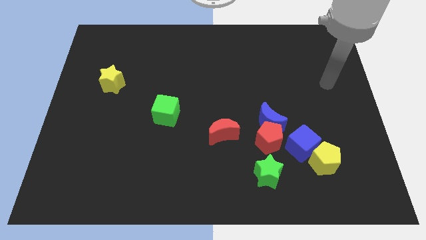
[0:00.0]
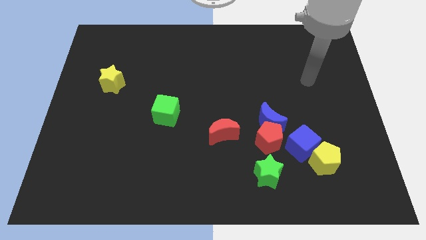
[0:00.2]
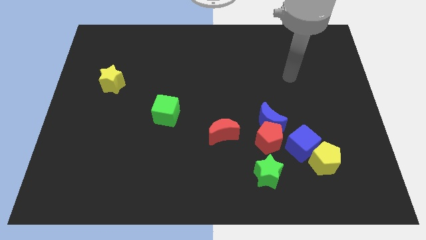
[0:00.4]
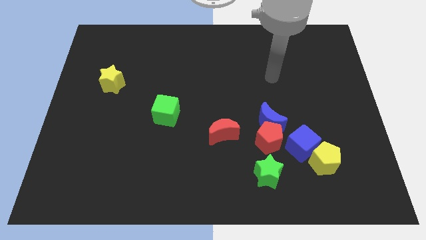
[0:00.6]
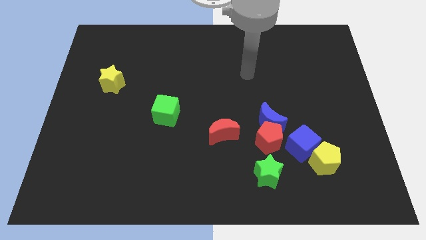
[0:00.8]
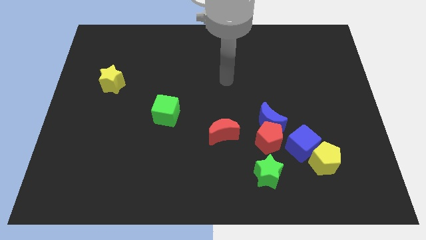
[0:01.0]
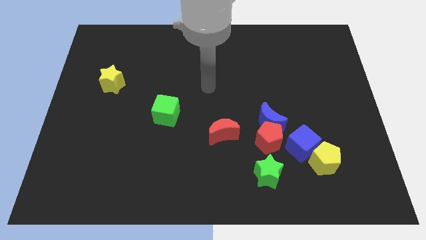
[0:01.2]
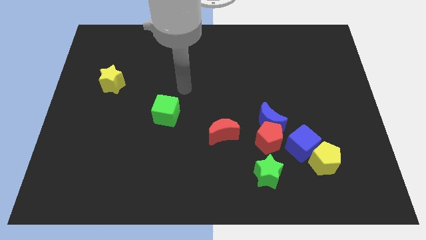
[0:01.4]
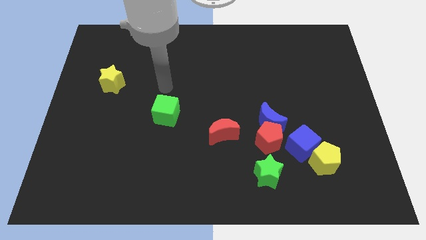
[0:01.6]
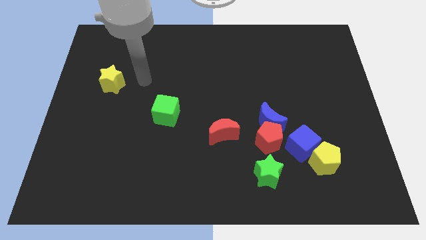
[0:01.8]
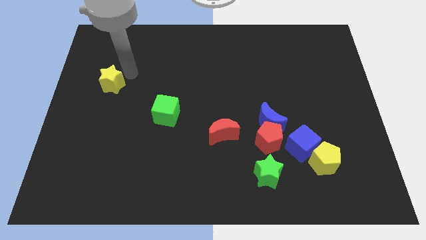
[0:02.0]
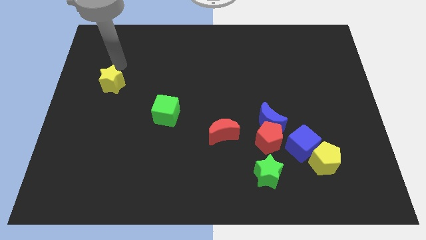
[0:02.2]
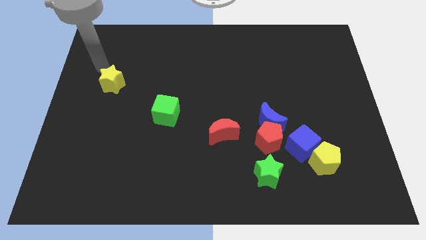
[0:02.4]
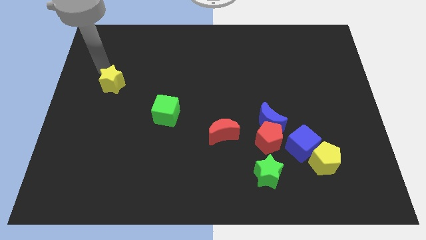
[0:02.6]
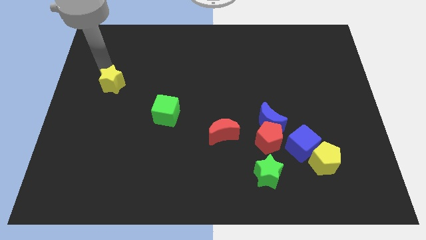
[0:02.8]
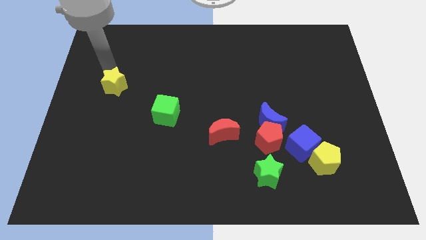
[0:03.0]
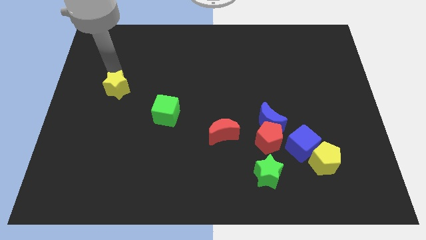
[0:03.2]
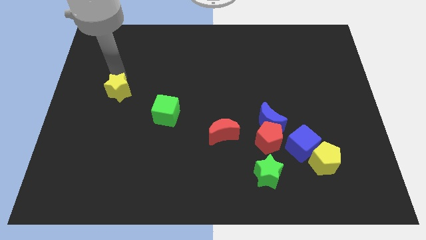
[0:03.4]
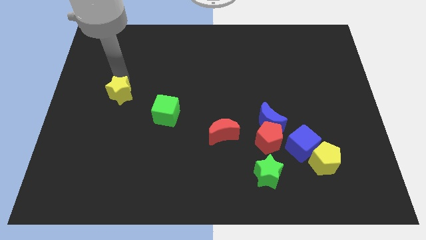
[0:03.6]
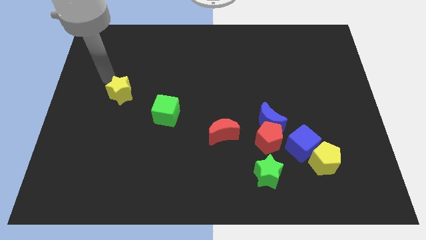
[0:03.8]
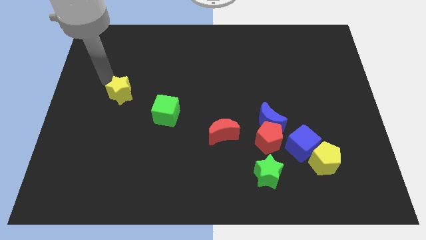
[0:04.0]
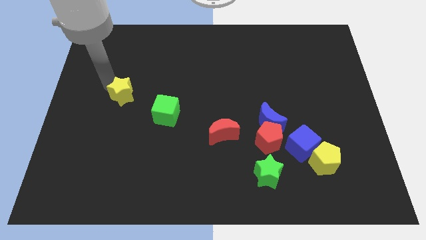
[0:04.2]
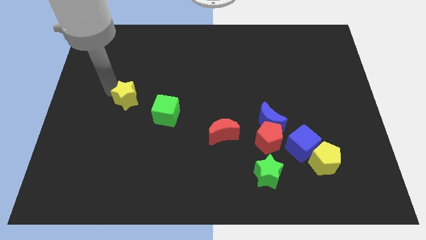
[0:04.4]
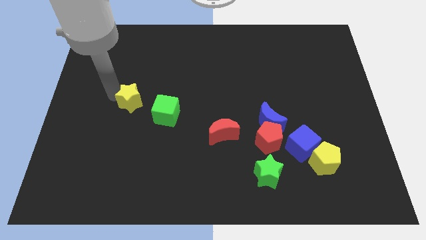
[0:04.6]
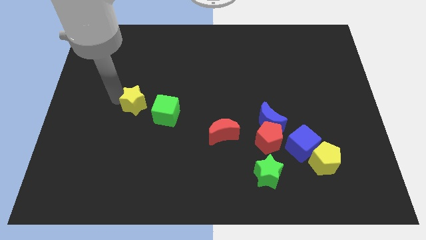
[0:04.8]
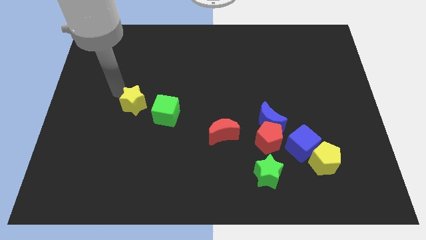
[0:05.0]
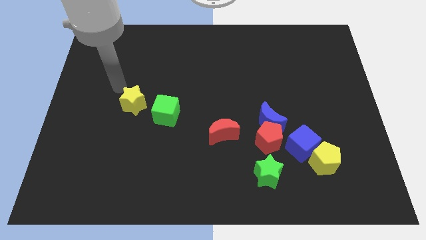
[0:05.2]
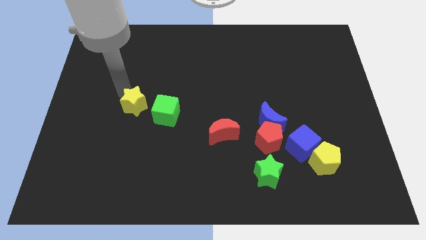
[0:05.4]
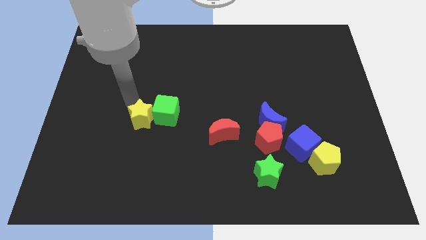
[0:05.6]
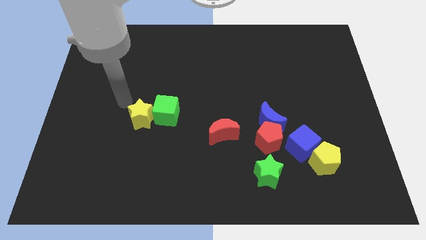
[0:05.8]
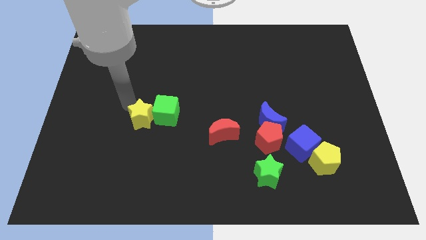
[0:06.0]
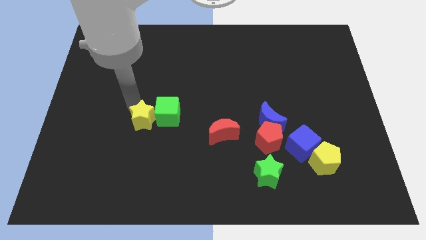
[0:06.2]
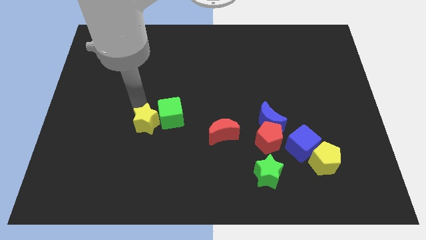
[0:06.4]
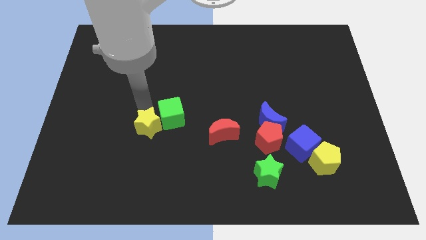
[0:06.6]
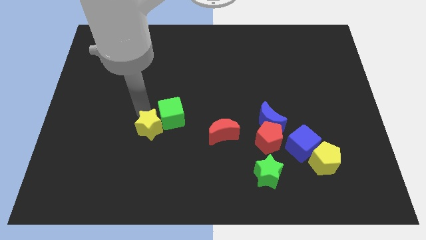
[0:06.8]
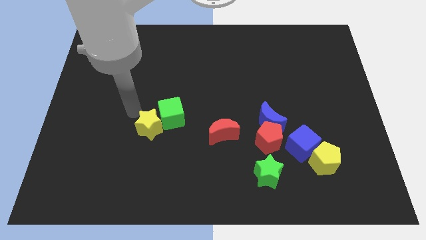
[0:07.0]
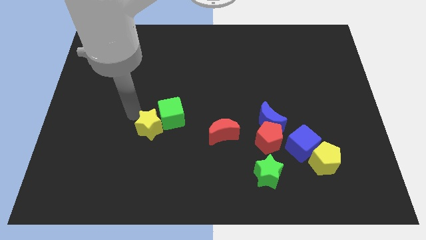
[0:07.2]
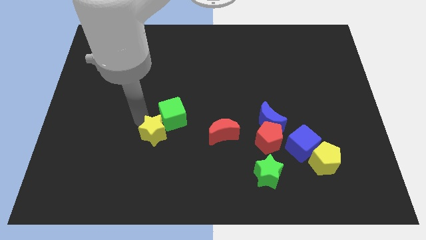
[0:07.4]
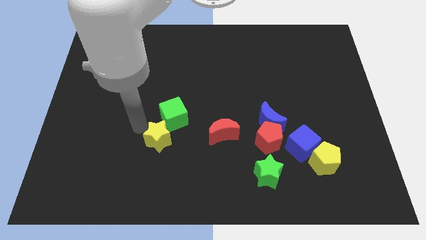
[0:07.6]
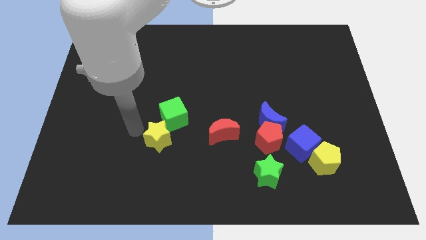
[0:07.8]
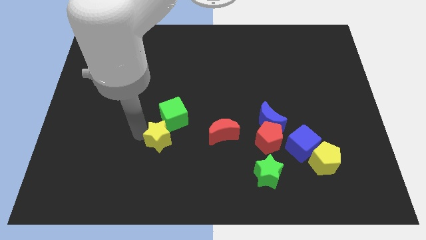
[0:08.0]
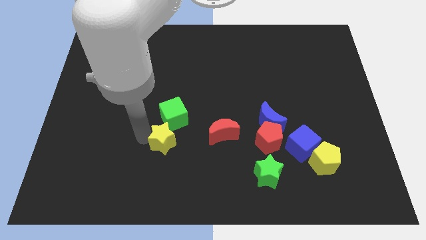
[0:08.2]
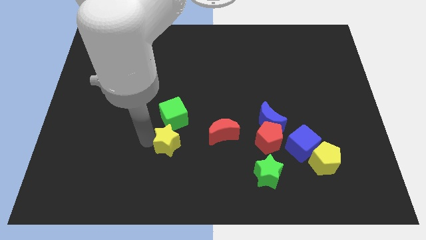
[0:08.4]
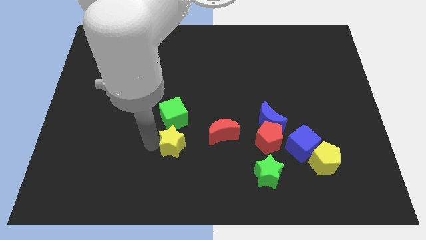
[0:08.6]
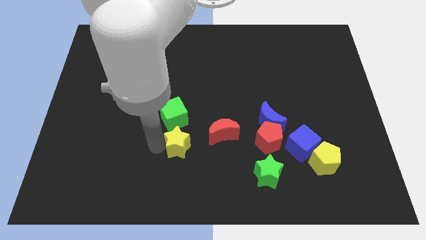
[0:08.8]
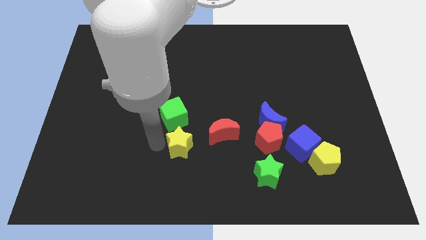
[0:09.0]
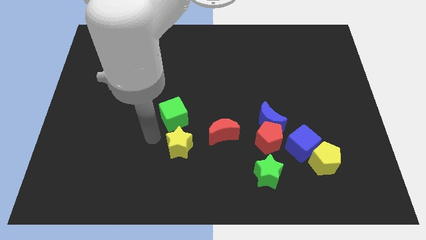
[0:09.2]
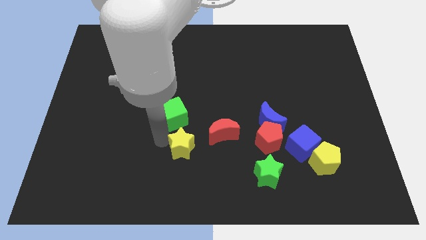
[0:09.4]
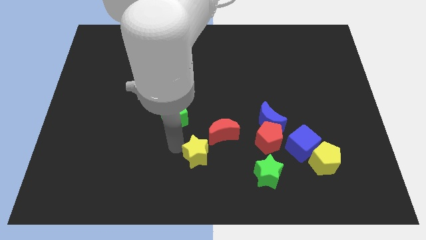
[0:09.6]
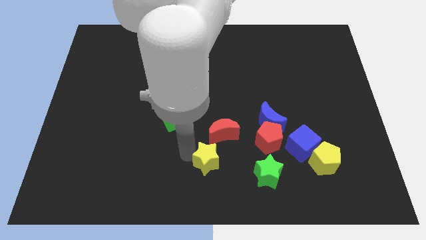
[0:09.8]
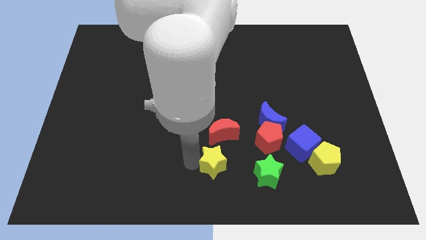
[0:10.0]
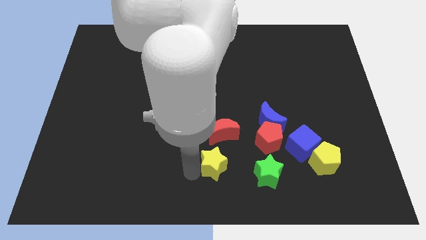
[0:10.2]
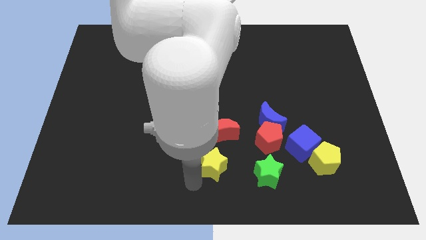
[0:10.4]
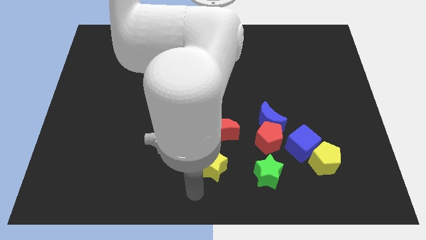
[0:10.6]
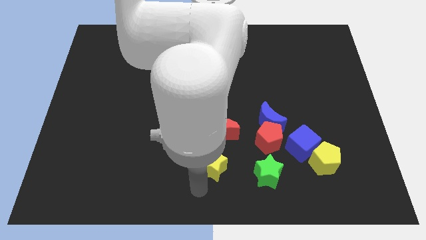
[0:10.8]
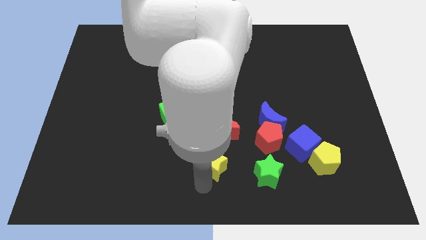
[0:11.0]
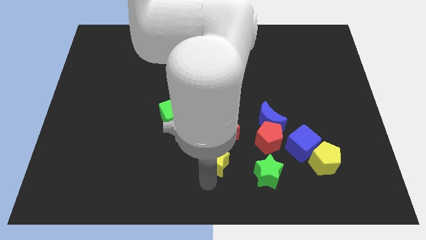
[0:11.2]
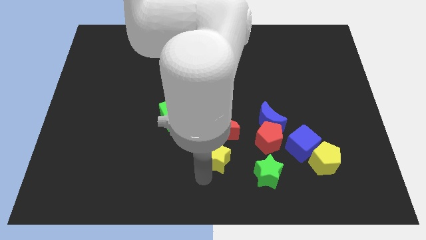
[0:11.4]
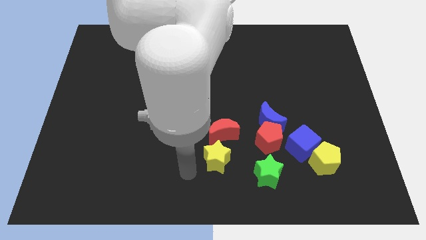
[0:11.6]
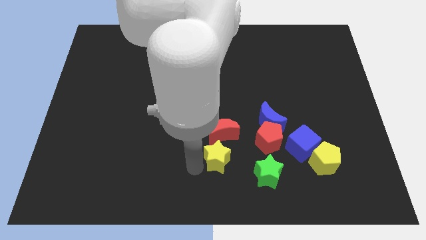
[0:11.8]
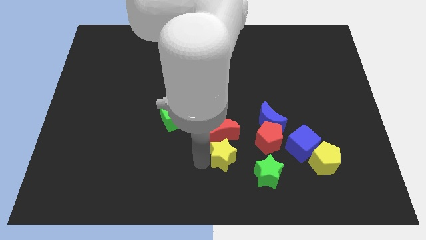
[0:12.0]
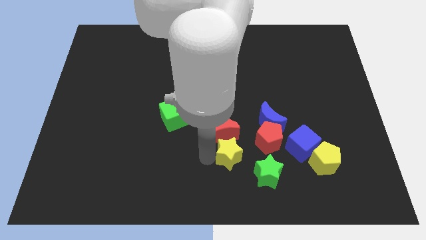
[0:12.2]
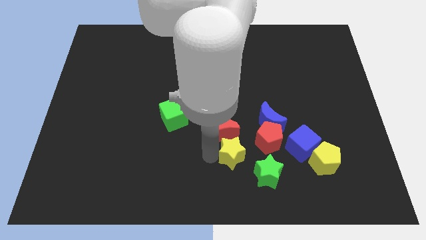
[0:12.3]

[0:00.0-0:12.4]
put the yellow star to the left of the blue cube

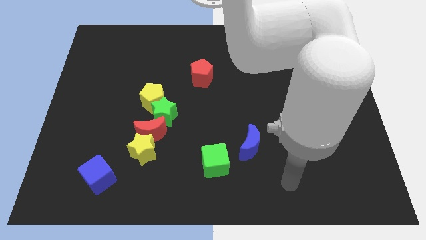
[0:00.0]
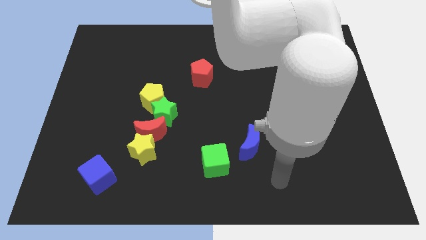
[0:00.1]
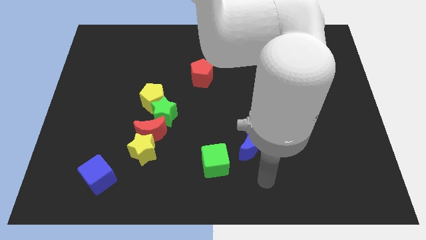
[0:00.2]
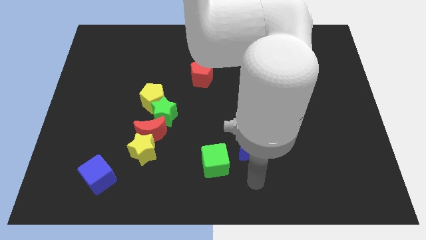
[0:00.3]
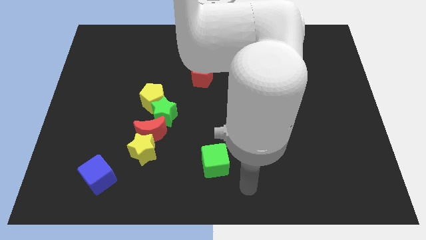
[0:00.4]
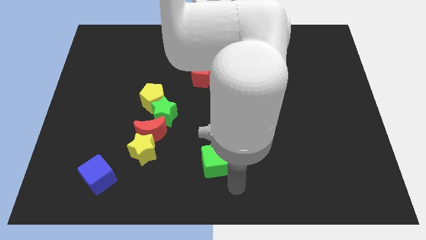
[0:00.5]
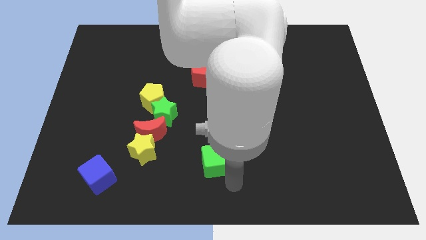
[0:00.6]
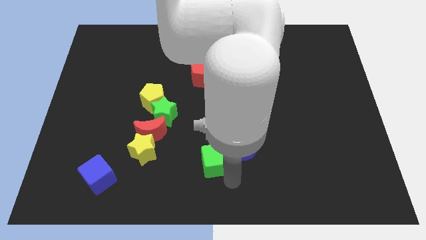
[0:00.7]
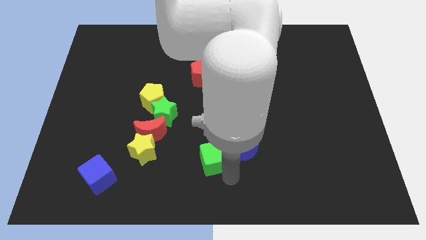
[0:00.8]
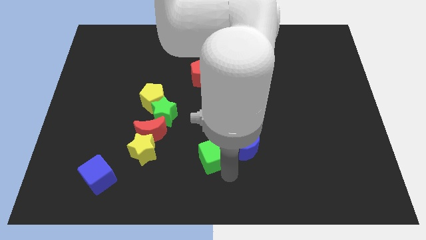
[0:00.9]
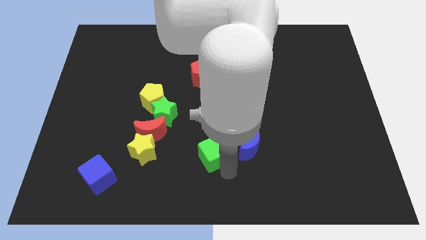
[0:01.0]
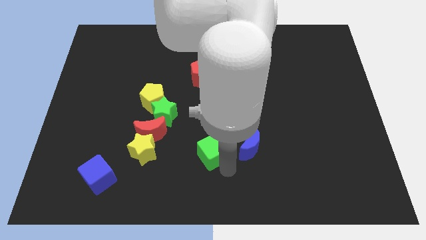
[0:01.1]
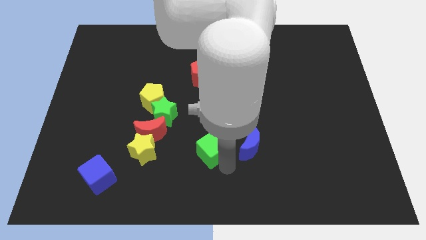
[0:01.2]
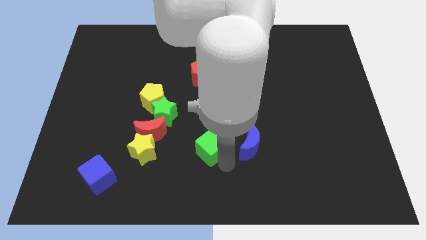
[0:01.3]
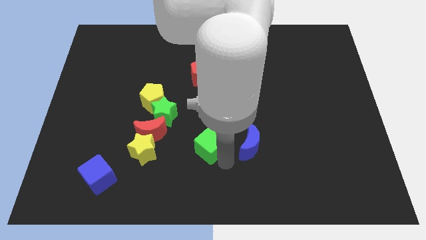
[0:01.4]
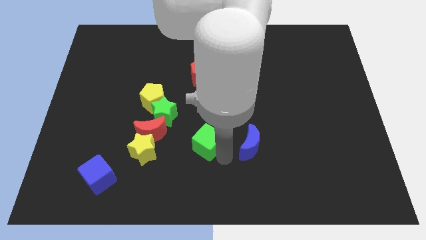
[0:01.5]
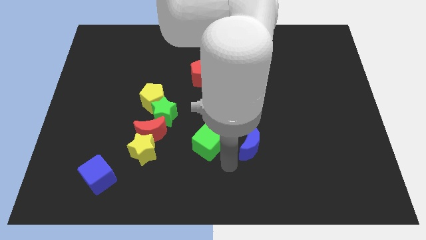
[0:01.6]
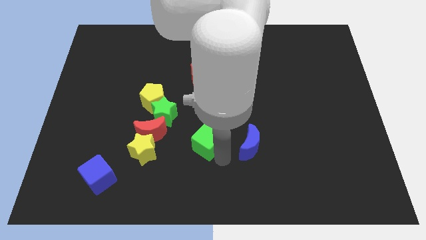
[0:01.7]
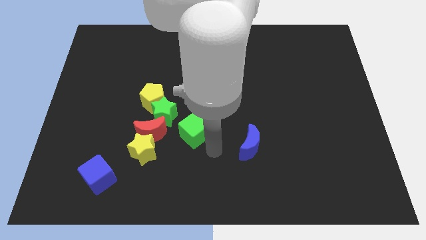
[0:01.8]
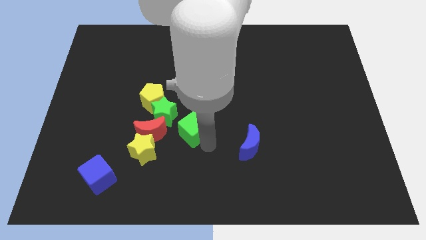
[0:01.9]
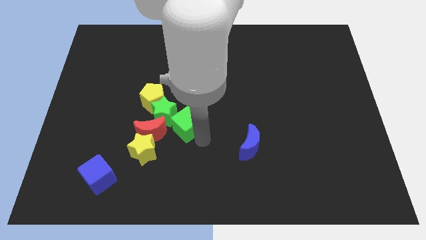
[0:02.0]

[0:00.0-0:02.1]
move the green cube to the top right side of the red moon
